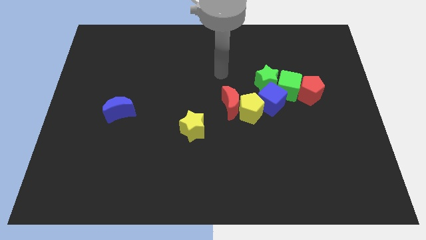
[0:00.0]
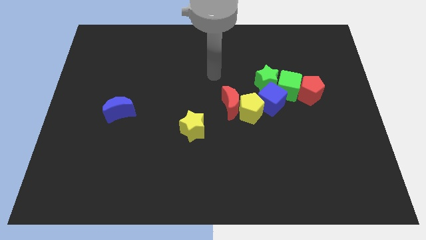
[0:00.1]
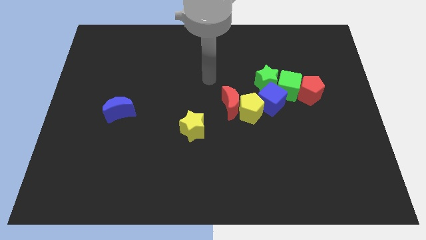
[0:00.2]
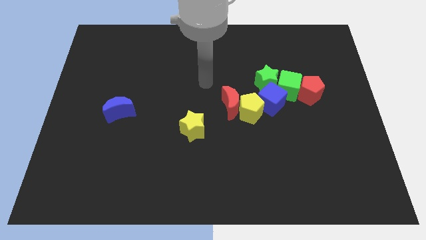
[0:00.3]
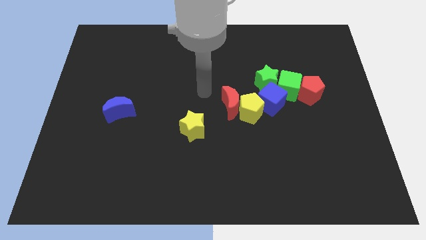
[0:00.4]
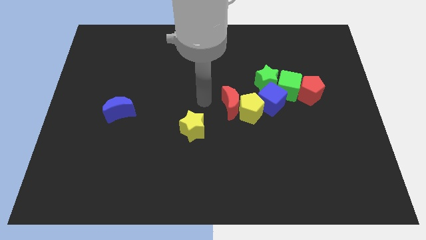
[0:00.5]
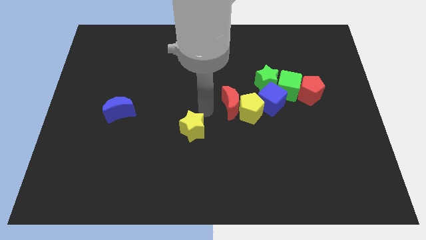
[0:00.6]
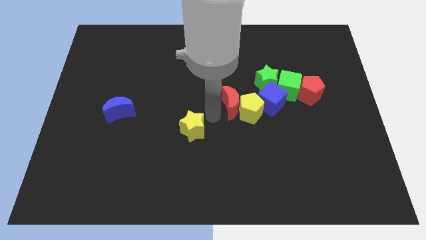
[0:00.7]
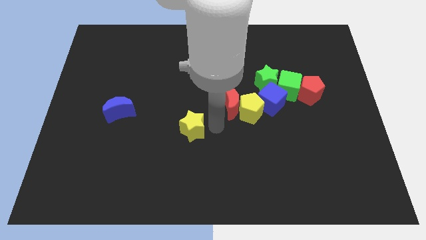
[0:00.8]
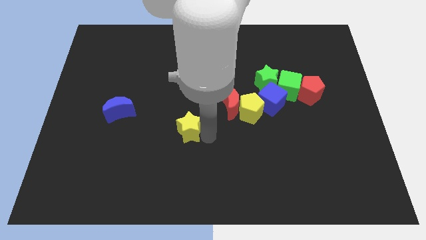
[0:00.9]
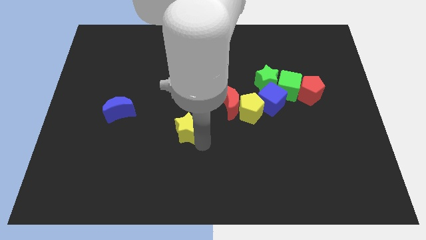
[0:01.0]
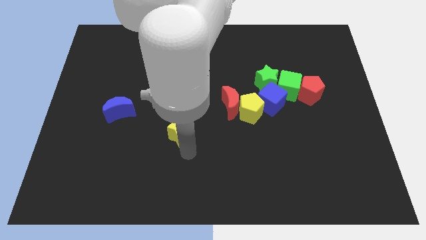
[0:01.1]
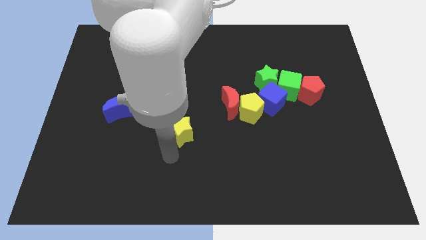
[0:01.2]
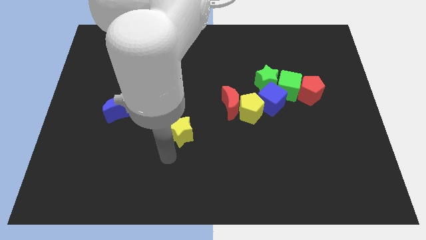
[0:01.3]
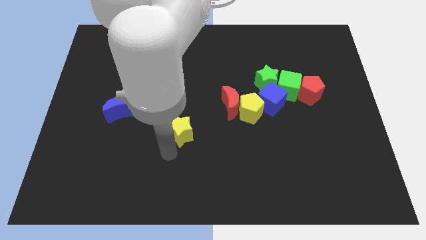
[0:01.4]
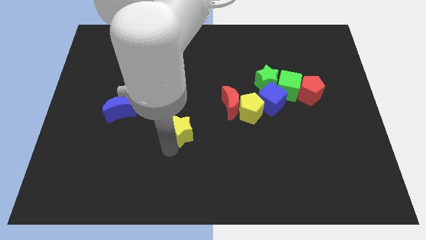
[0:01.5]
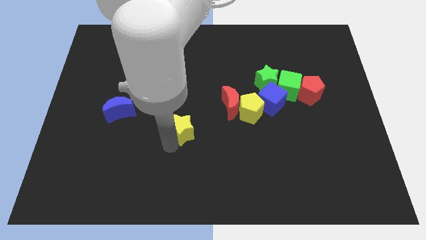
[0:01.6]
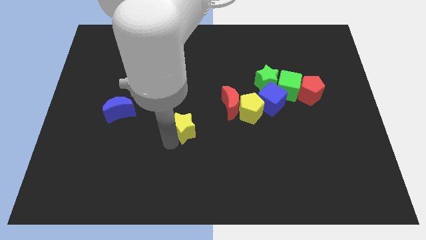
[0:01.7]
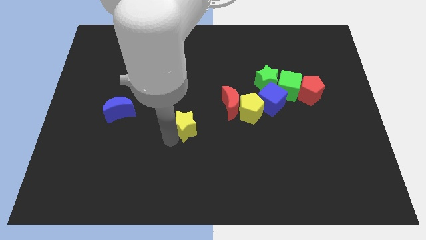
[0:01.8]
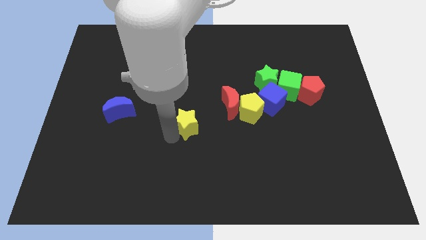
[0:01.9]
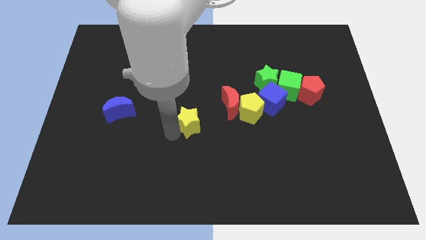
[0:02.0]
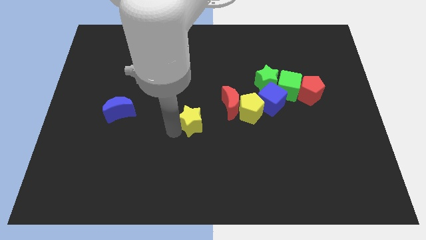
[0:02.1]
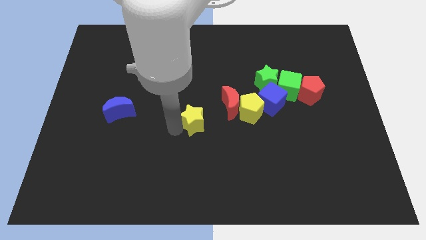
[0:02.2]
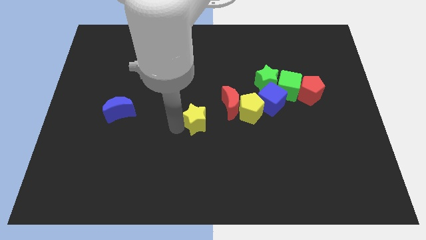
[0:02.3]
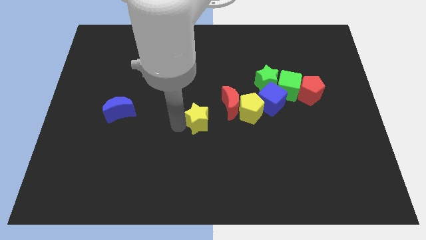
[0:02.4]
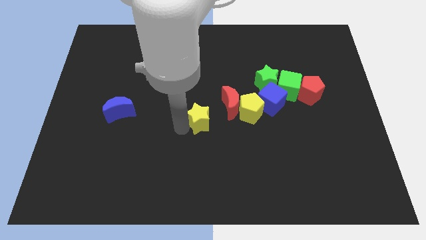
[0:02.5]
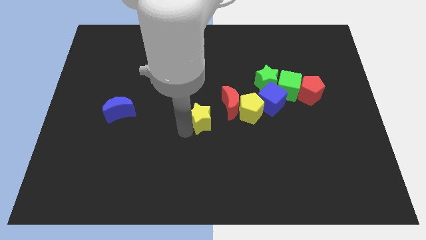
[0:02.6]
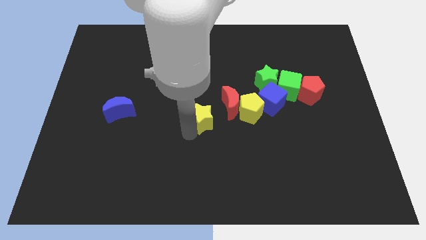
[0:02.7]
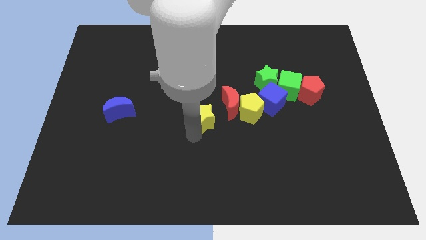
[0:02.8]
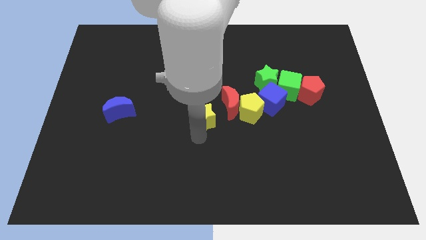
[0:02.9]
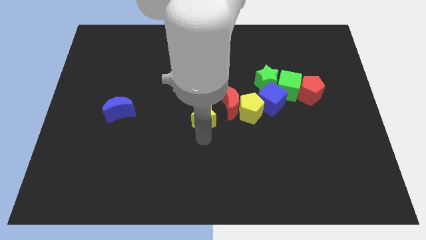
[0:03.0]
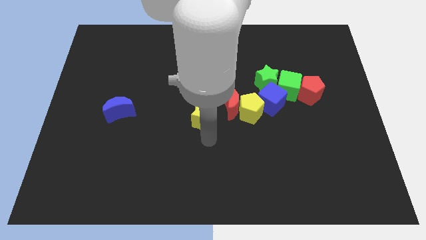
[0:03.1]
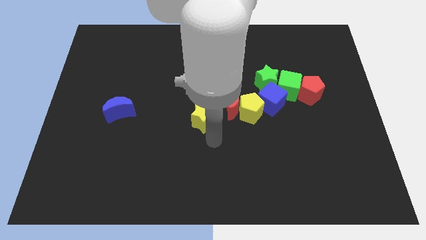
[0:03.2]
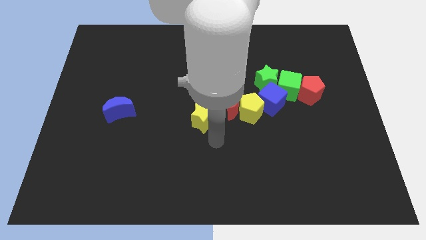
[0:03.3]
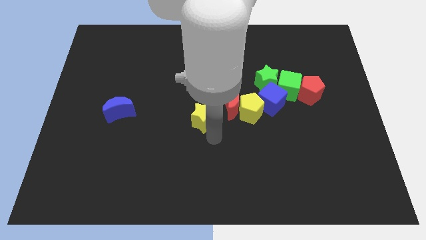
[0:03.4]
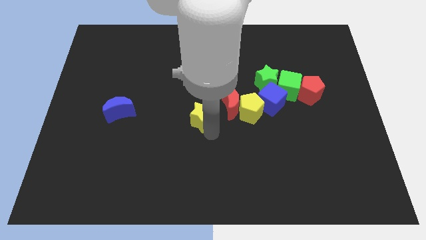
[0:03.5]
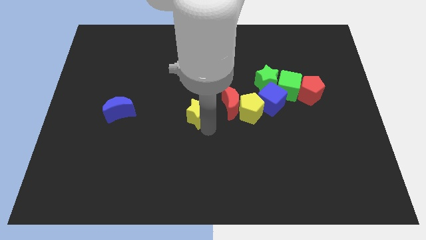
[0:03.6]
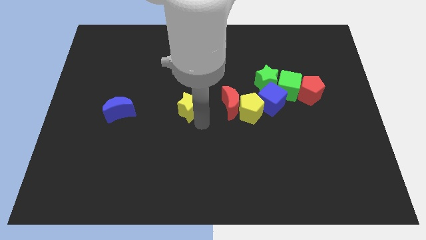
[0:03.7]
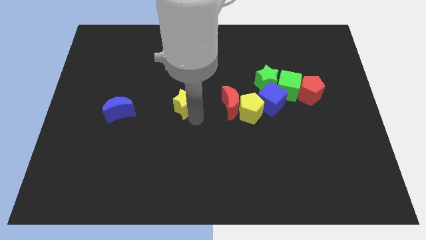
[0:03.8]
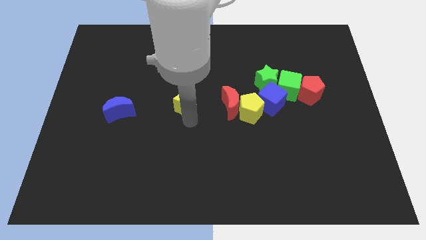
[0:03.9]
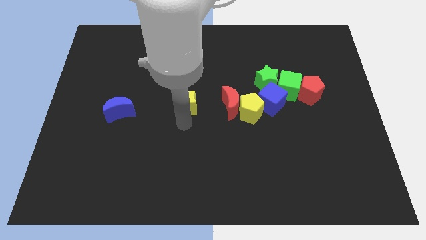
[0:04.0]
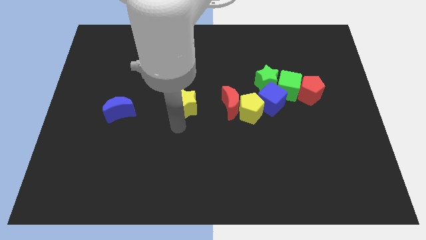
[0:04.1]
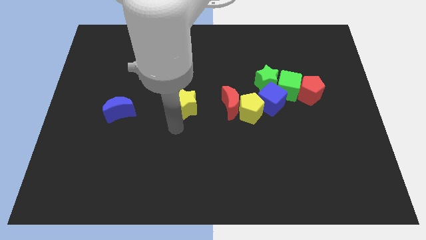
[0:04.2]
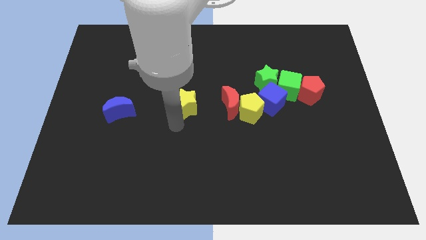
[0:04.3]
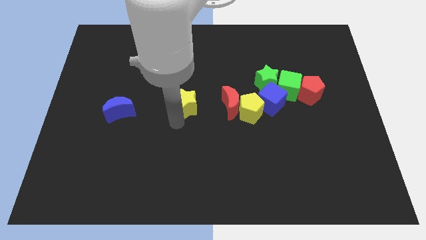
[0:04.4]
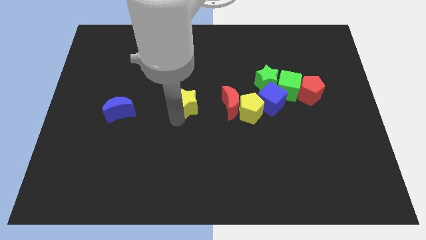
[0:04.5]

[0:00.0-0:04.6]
slightly move the yellow star up

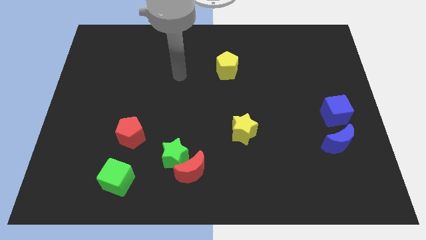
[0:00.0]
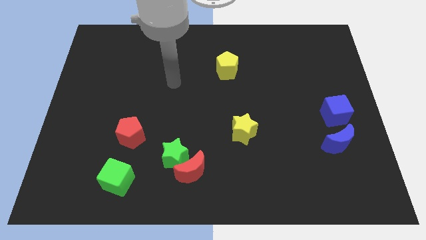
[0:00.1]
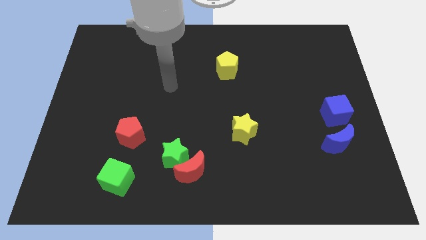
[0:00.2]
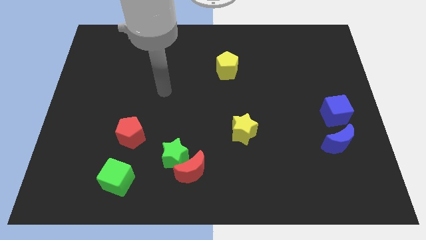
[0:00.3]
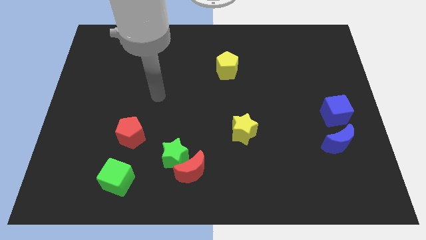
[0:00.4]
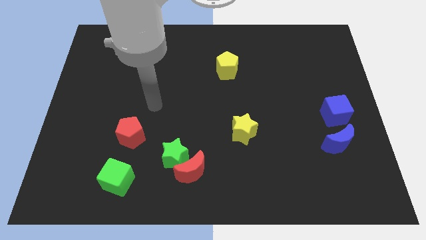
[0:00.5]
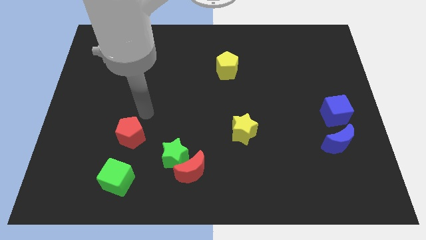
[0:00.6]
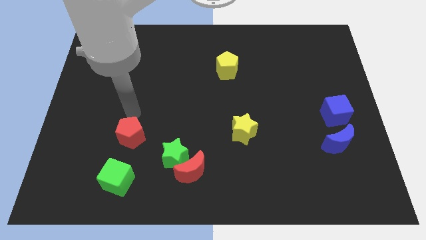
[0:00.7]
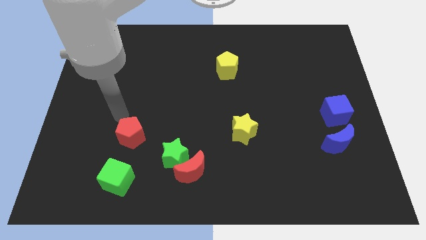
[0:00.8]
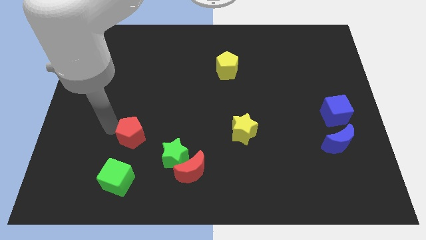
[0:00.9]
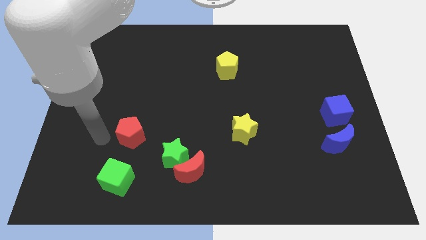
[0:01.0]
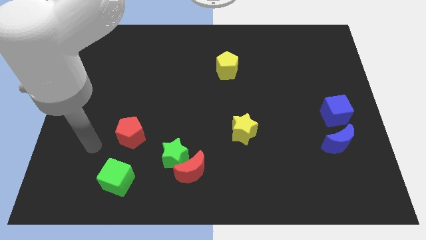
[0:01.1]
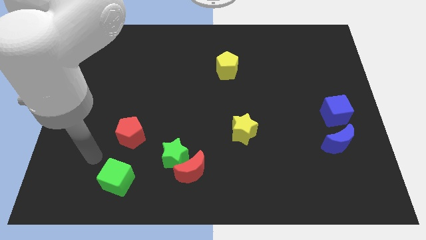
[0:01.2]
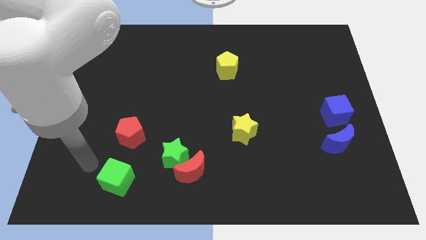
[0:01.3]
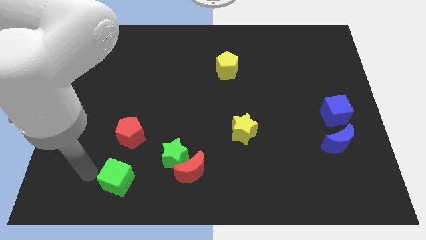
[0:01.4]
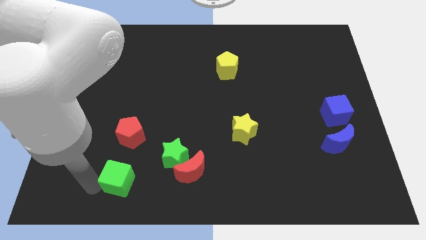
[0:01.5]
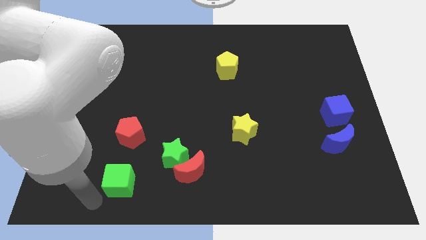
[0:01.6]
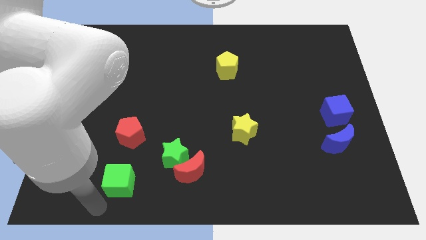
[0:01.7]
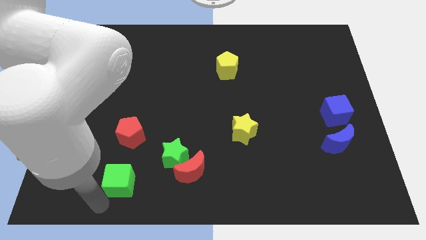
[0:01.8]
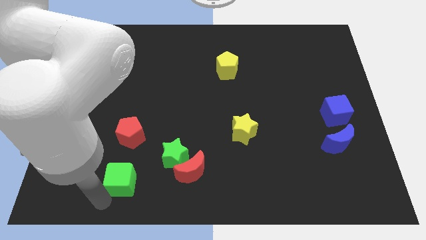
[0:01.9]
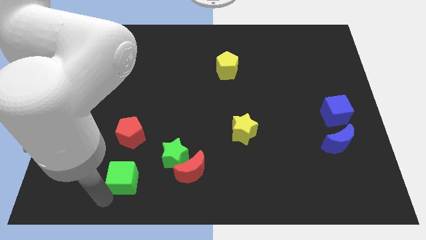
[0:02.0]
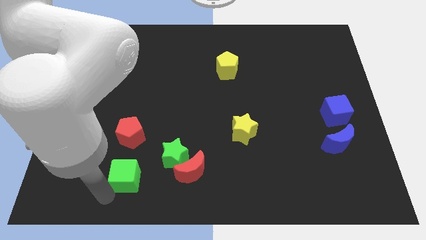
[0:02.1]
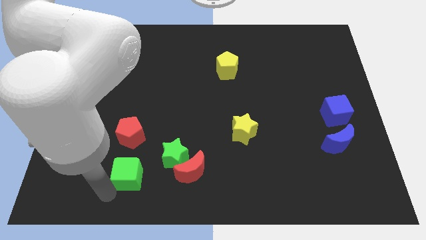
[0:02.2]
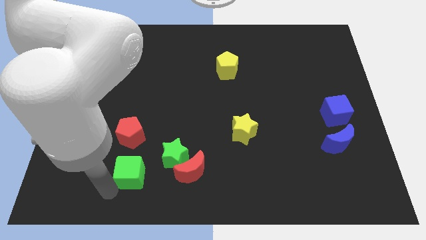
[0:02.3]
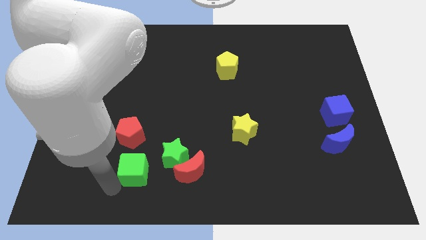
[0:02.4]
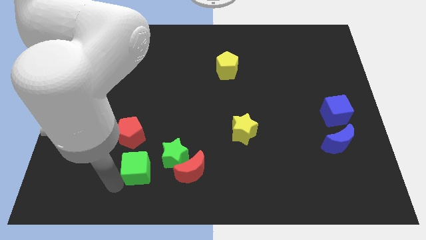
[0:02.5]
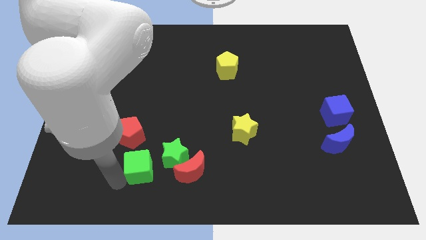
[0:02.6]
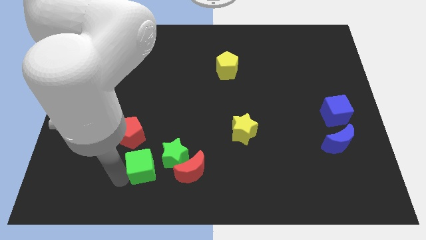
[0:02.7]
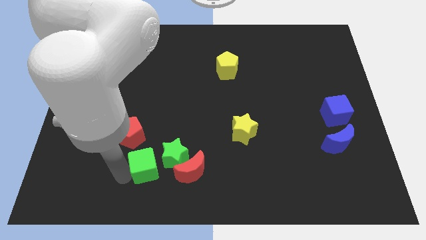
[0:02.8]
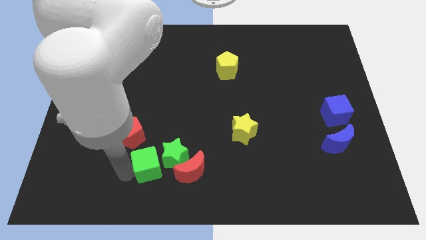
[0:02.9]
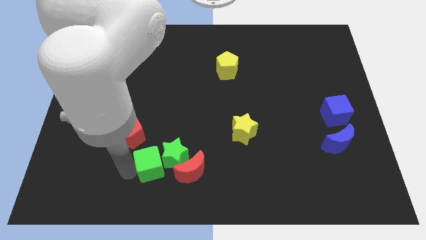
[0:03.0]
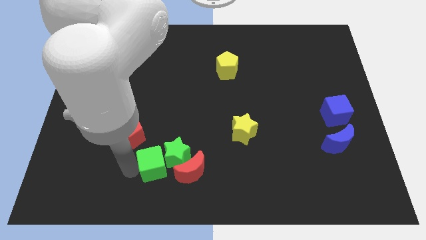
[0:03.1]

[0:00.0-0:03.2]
move the green cube a little diagonally up and right
